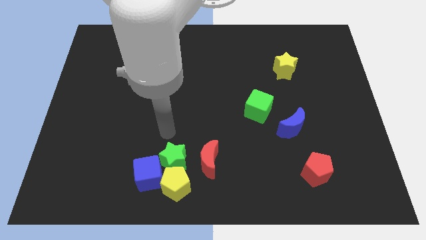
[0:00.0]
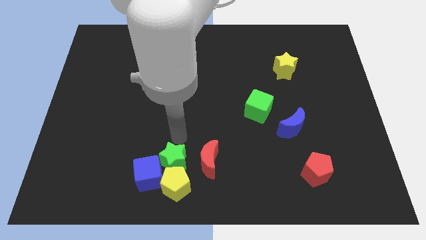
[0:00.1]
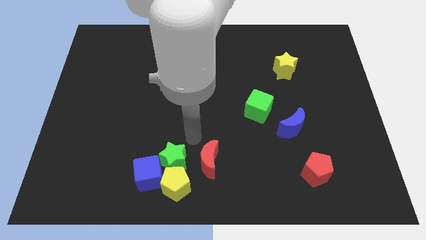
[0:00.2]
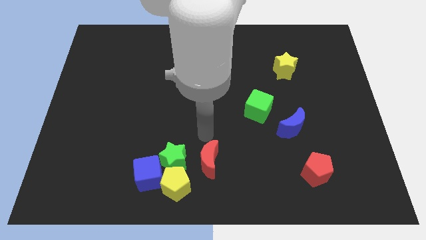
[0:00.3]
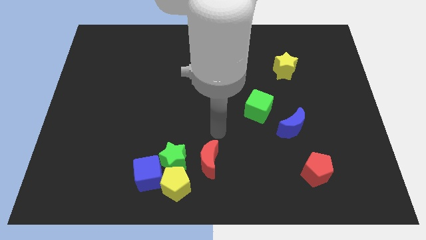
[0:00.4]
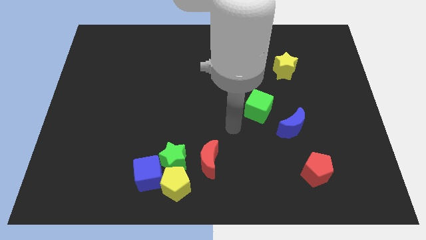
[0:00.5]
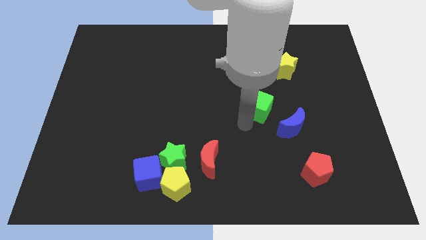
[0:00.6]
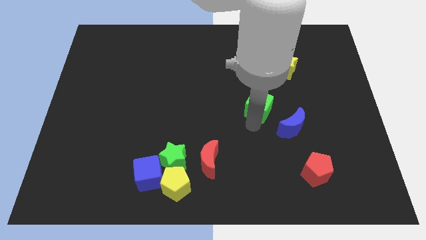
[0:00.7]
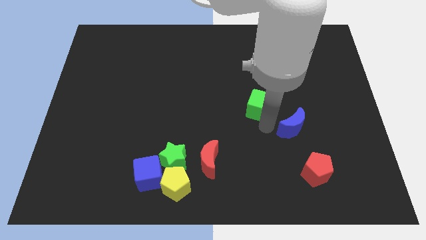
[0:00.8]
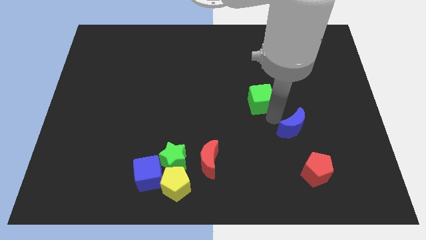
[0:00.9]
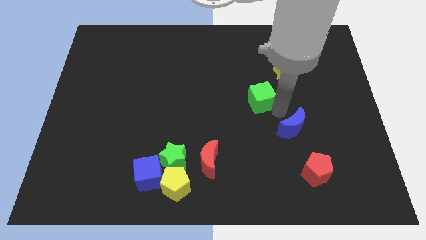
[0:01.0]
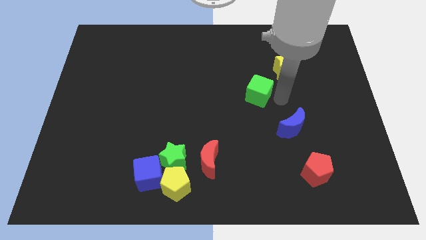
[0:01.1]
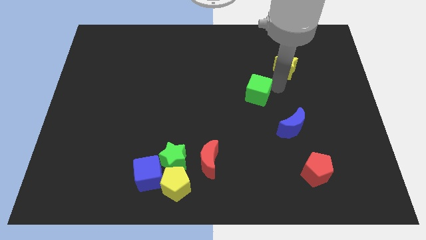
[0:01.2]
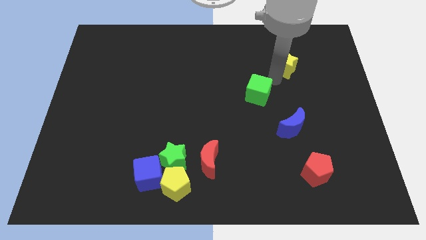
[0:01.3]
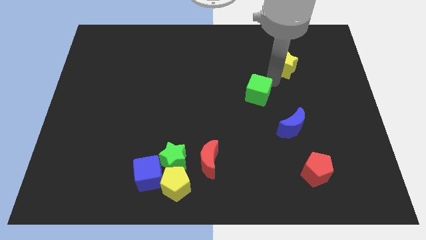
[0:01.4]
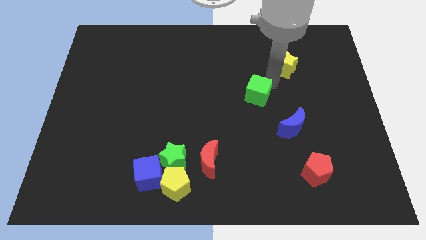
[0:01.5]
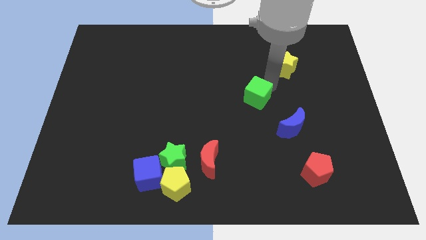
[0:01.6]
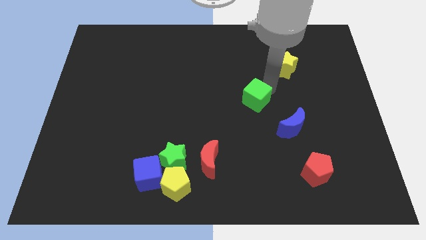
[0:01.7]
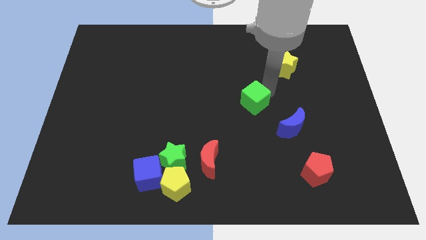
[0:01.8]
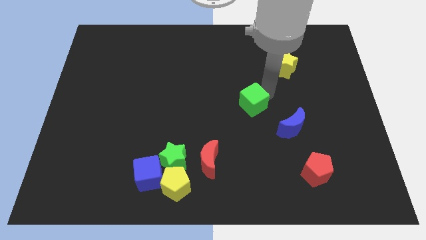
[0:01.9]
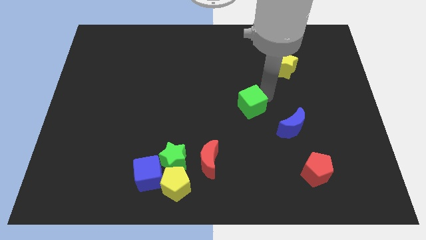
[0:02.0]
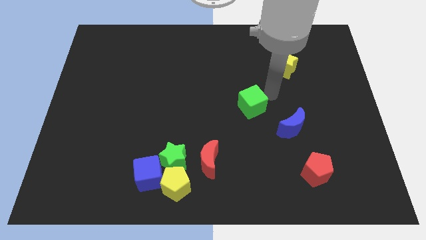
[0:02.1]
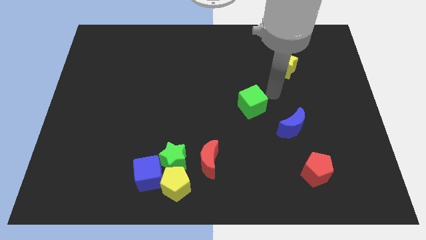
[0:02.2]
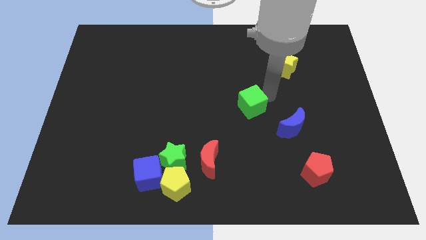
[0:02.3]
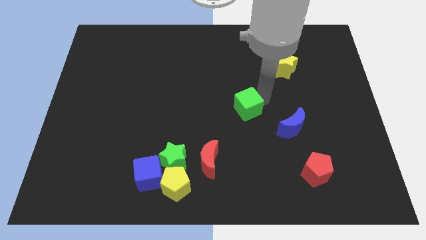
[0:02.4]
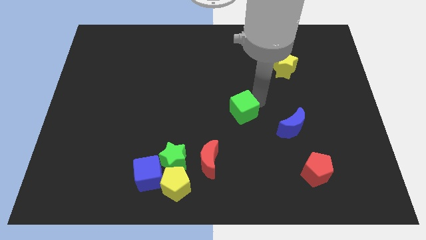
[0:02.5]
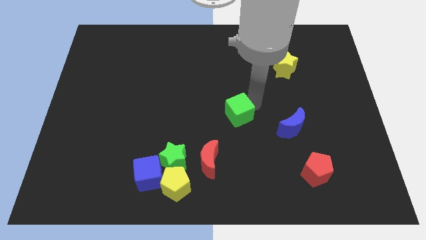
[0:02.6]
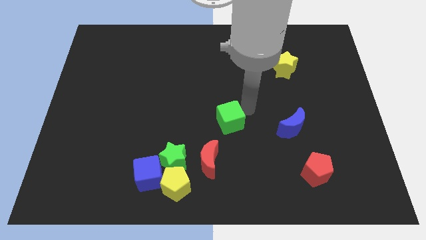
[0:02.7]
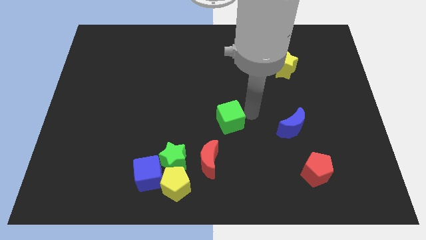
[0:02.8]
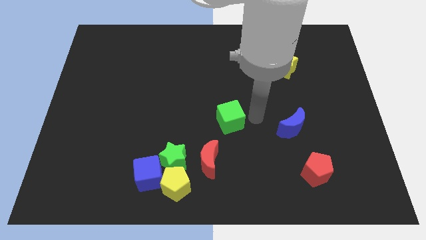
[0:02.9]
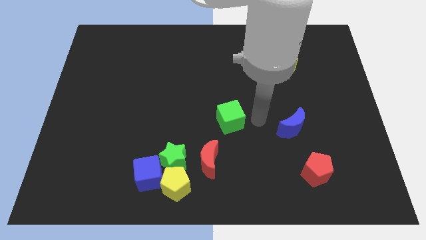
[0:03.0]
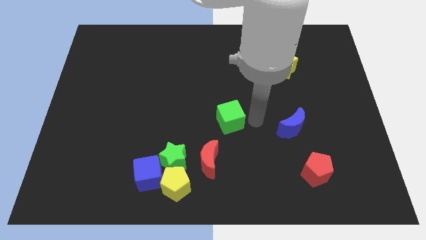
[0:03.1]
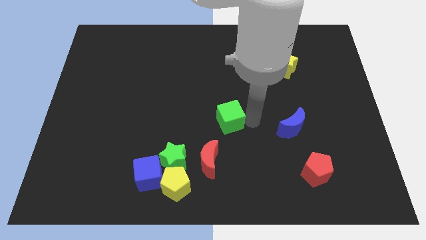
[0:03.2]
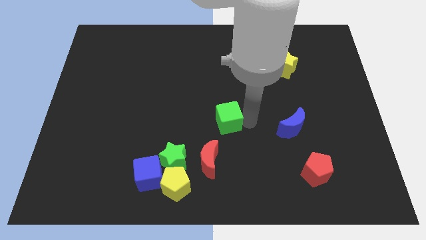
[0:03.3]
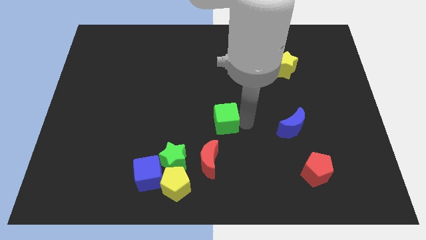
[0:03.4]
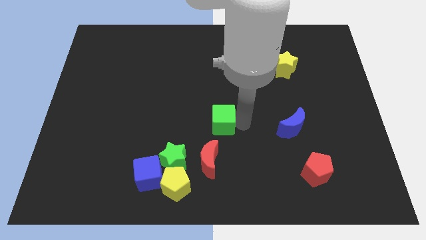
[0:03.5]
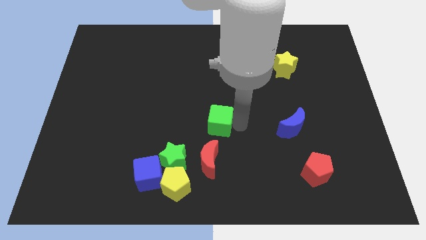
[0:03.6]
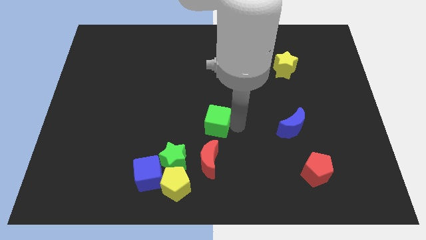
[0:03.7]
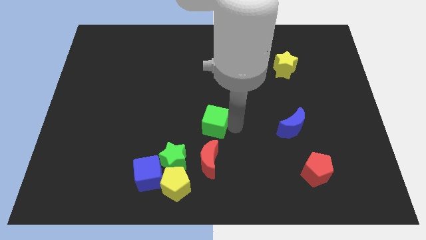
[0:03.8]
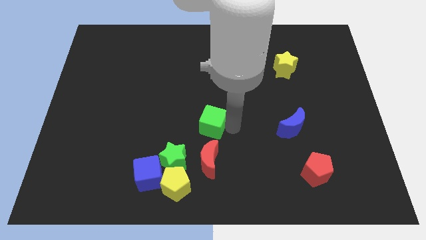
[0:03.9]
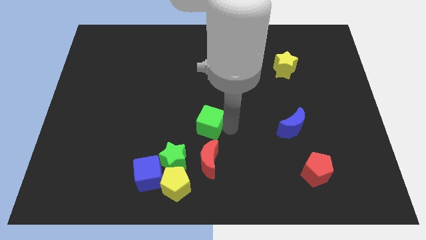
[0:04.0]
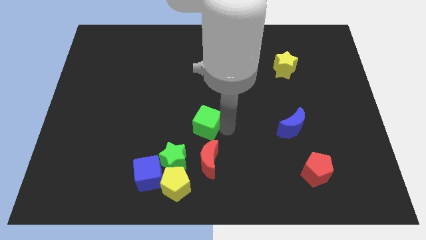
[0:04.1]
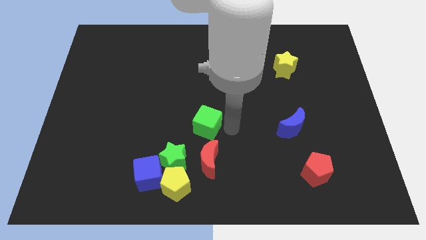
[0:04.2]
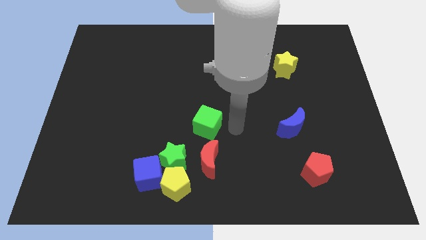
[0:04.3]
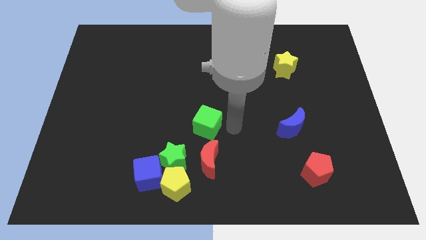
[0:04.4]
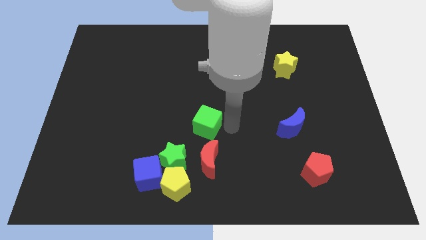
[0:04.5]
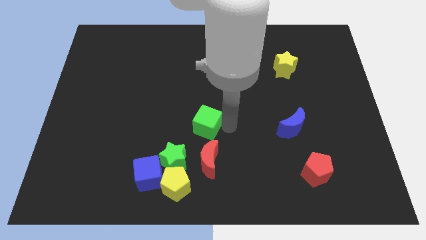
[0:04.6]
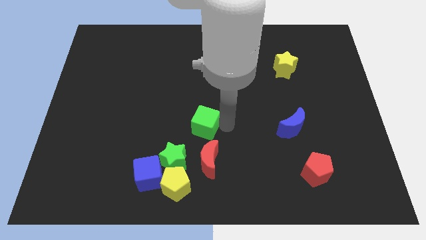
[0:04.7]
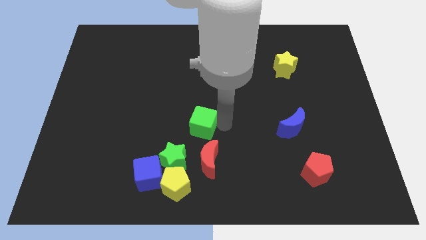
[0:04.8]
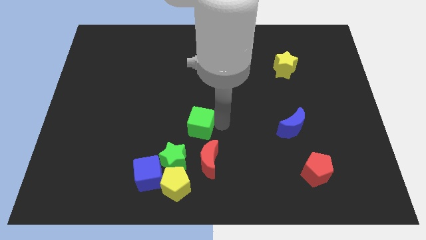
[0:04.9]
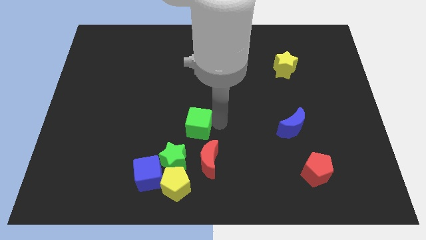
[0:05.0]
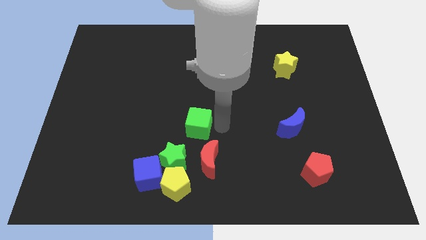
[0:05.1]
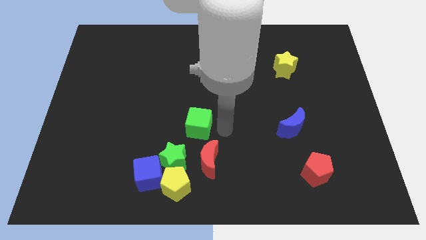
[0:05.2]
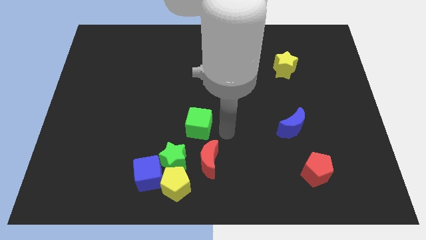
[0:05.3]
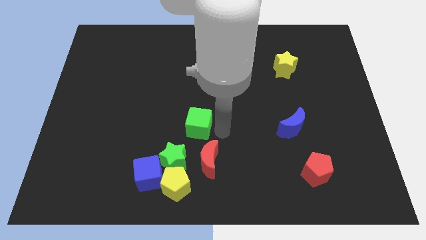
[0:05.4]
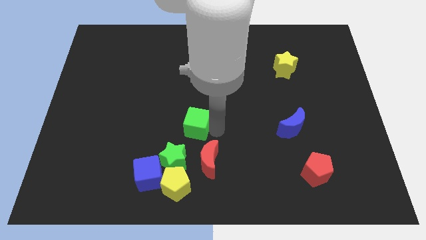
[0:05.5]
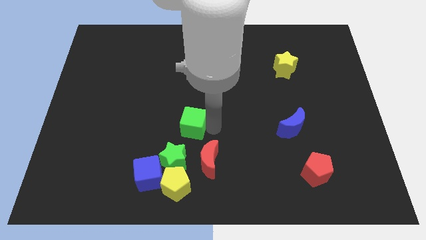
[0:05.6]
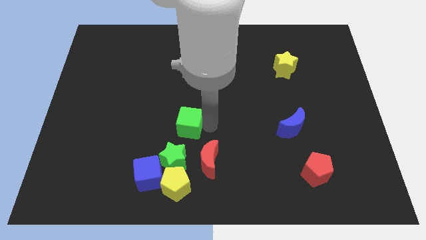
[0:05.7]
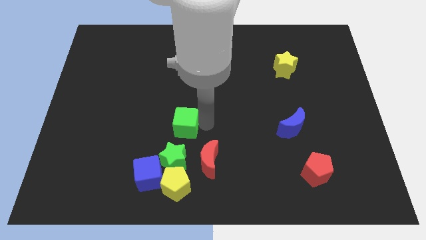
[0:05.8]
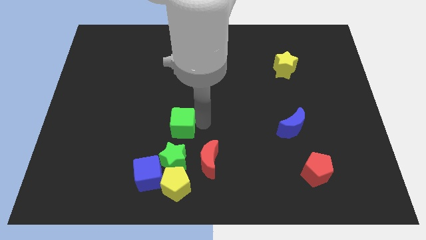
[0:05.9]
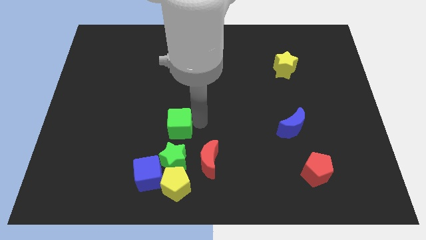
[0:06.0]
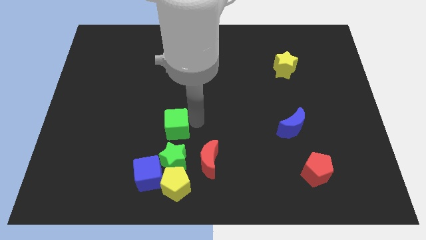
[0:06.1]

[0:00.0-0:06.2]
slide the green cube to the top side of the blue cube

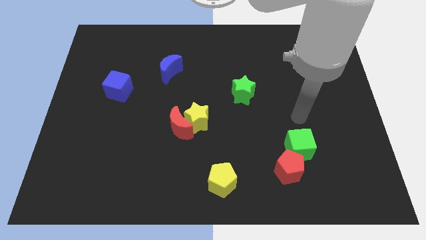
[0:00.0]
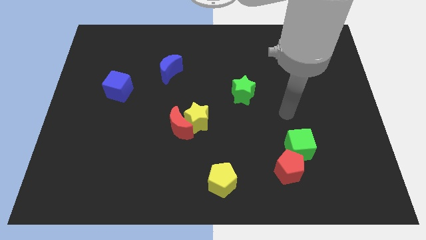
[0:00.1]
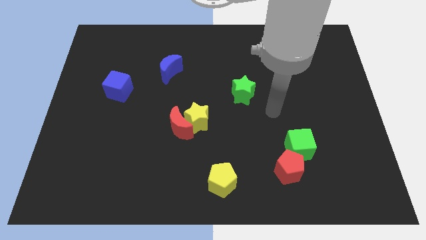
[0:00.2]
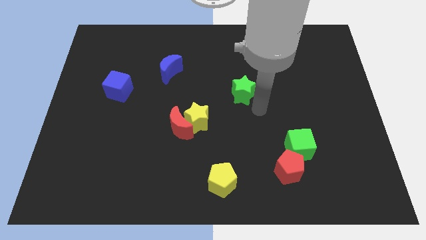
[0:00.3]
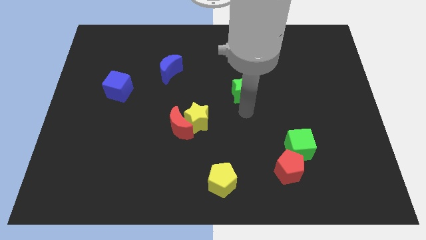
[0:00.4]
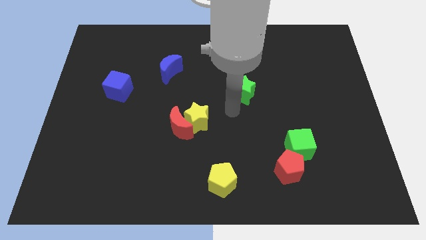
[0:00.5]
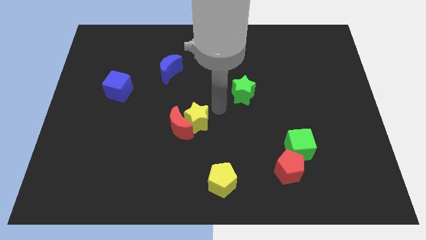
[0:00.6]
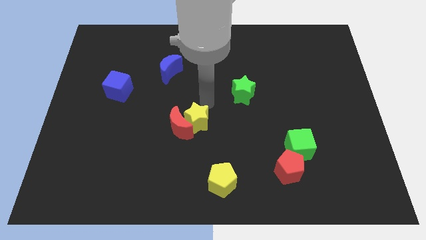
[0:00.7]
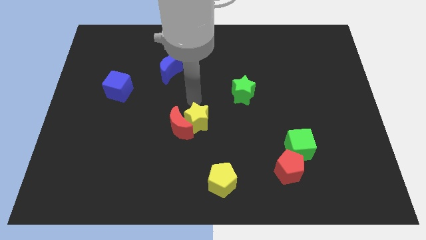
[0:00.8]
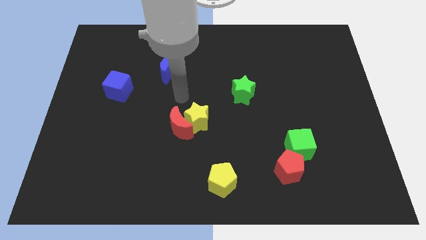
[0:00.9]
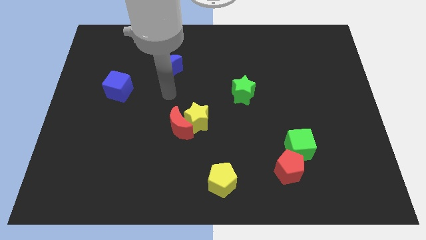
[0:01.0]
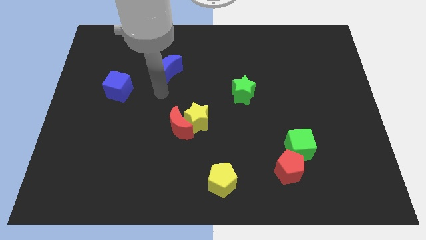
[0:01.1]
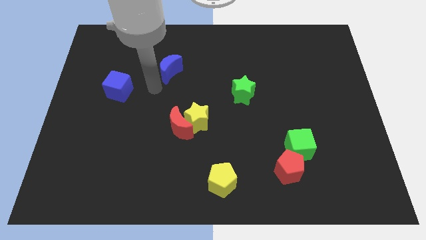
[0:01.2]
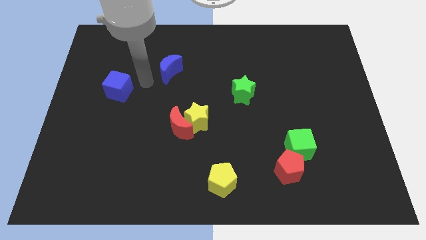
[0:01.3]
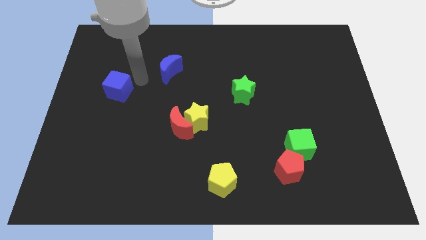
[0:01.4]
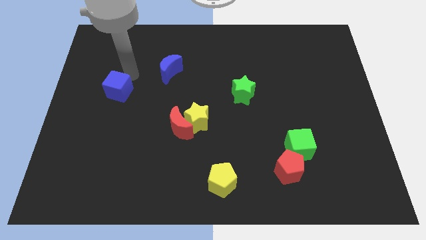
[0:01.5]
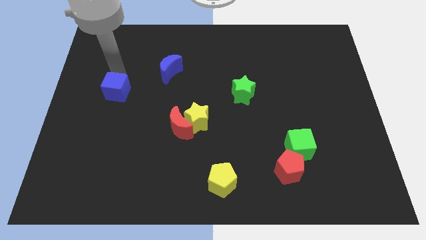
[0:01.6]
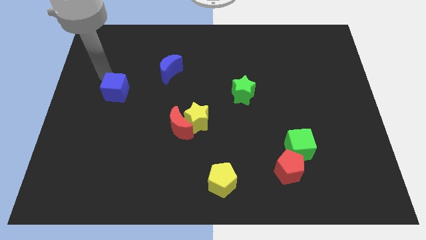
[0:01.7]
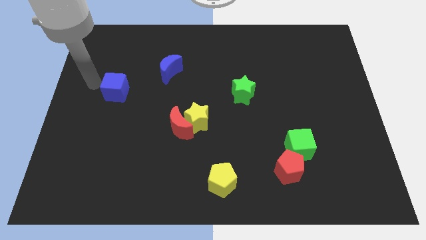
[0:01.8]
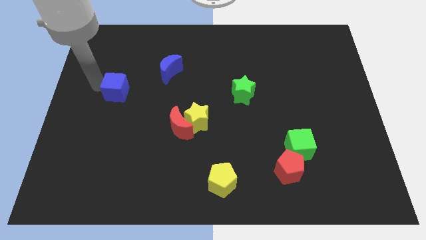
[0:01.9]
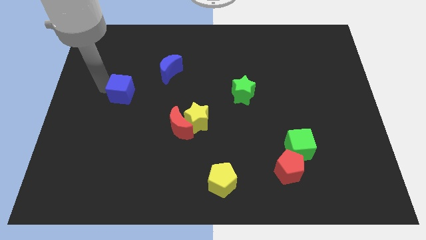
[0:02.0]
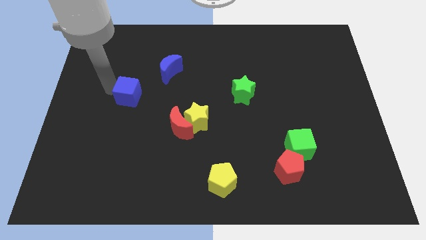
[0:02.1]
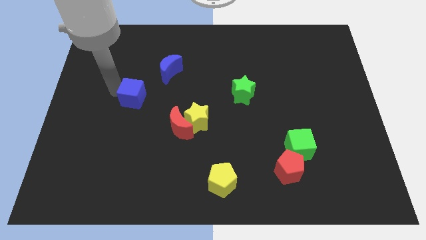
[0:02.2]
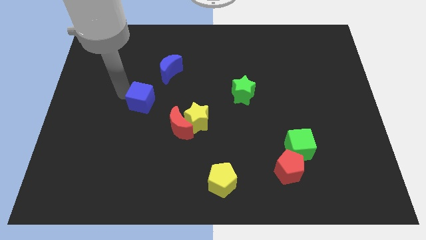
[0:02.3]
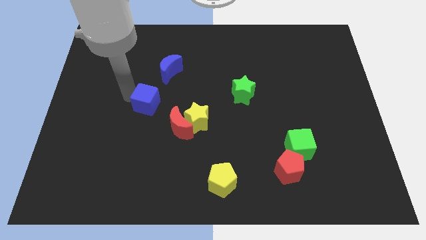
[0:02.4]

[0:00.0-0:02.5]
move the blue cube to the bottom of the blue moon
